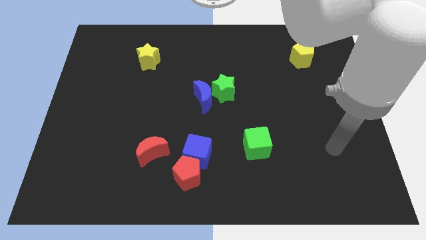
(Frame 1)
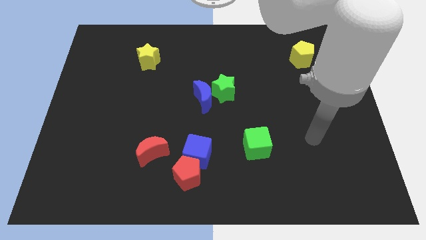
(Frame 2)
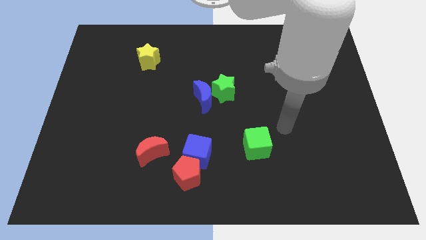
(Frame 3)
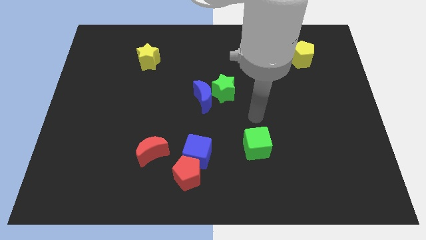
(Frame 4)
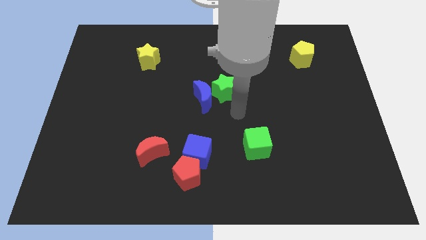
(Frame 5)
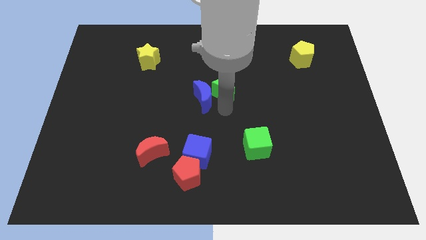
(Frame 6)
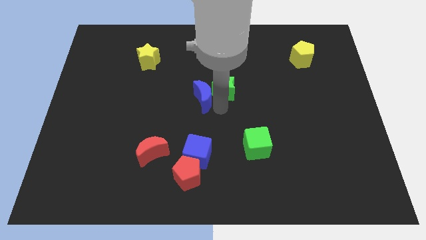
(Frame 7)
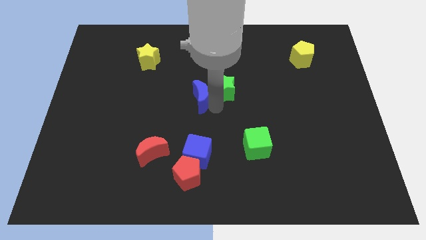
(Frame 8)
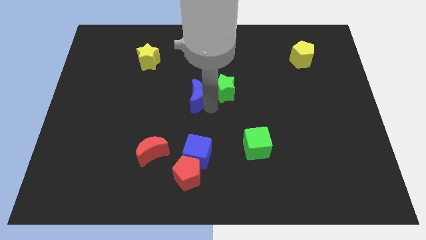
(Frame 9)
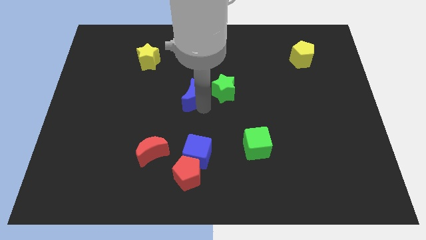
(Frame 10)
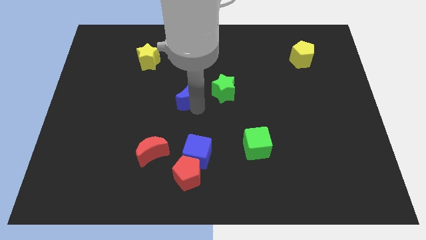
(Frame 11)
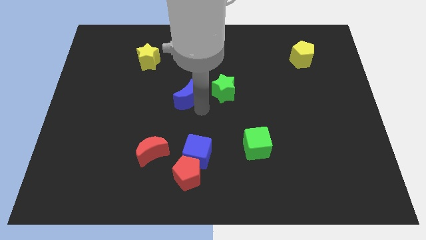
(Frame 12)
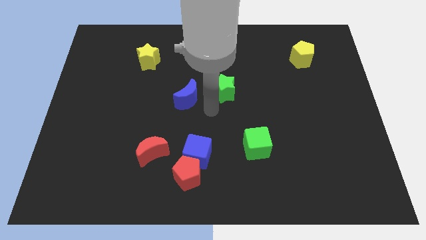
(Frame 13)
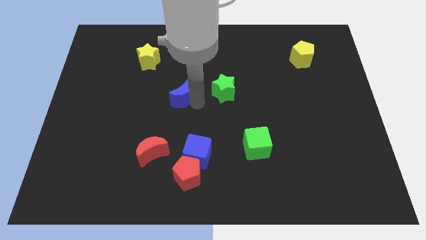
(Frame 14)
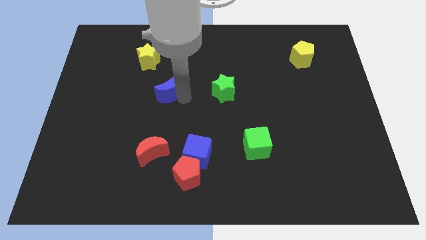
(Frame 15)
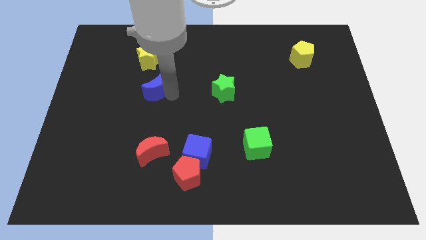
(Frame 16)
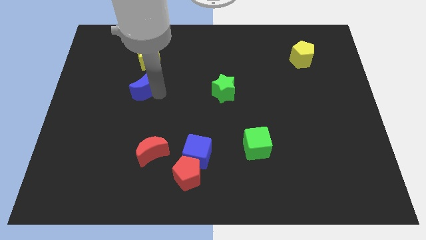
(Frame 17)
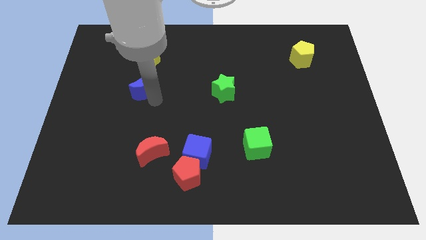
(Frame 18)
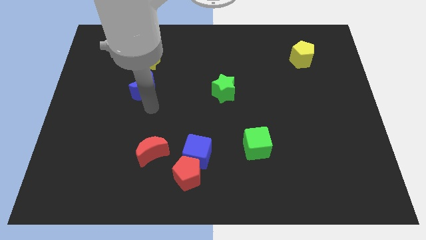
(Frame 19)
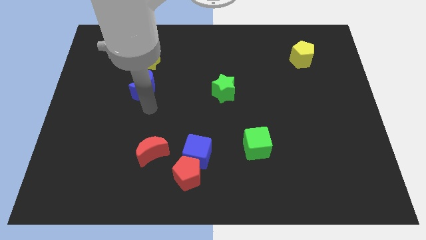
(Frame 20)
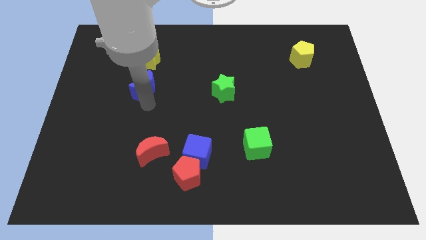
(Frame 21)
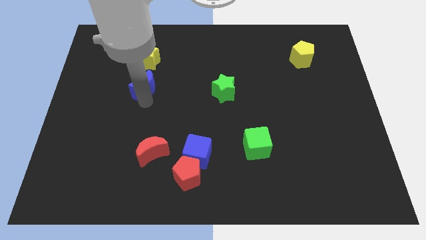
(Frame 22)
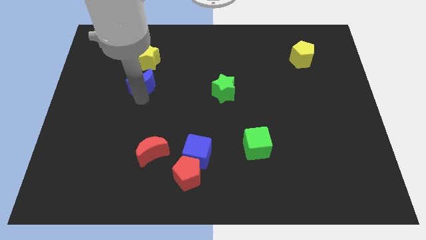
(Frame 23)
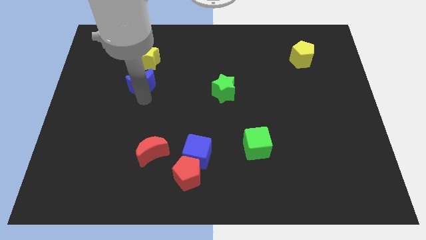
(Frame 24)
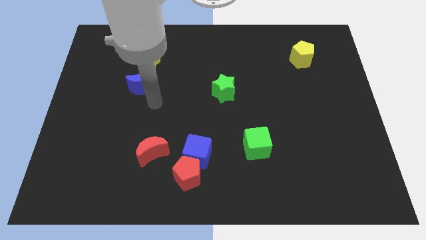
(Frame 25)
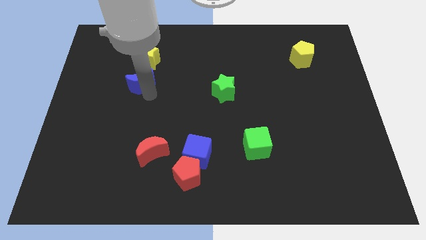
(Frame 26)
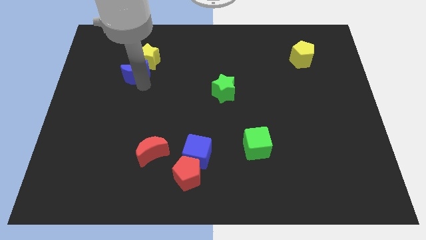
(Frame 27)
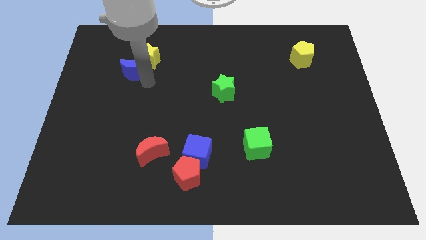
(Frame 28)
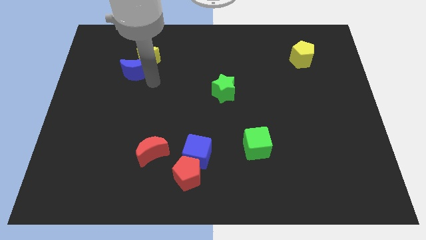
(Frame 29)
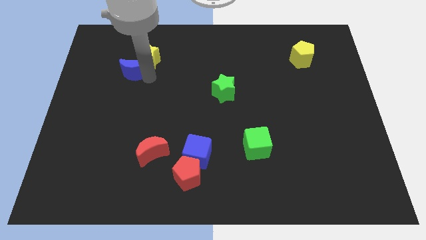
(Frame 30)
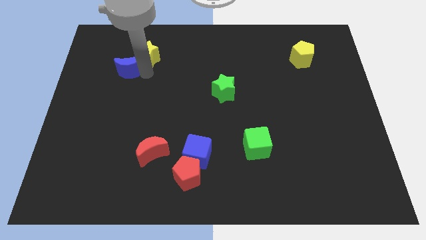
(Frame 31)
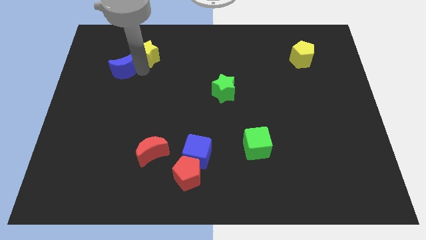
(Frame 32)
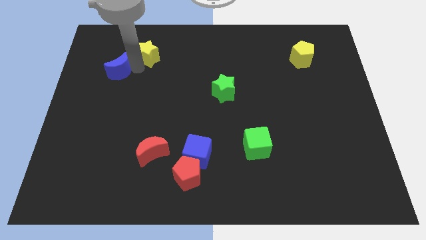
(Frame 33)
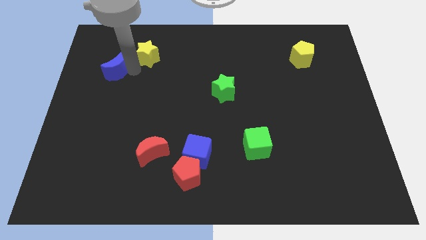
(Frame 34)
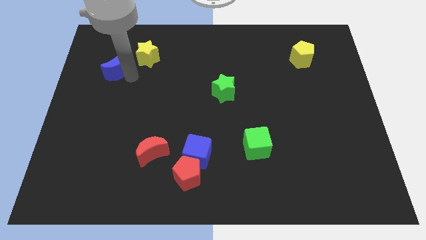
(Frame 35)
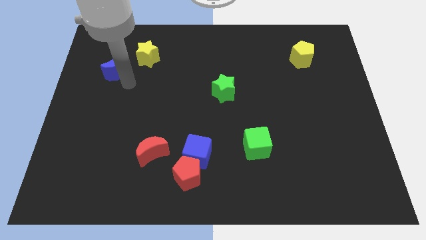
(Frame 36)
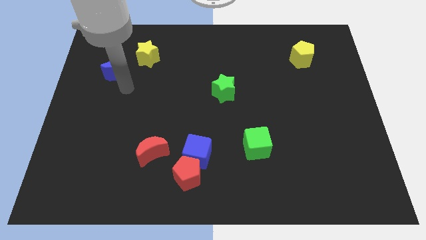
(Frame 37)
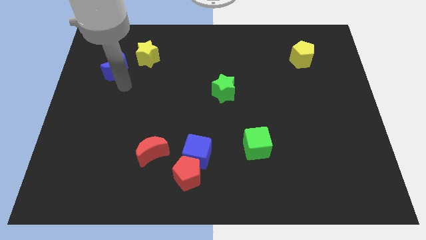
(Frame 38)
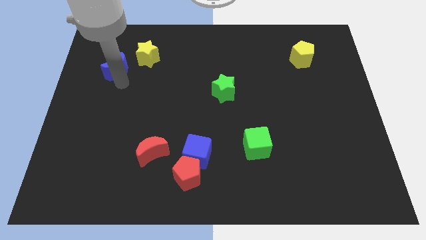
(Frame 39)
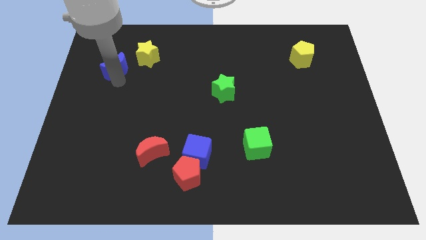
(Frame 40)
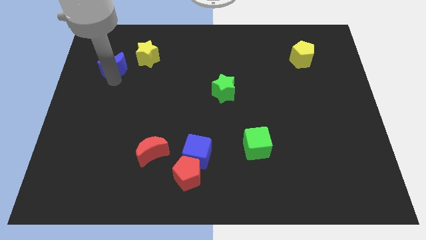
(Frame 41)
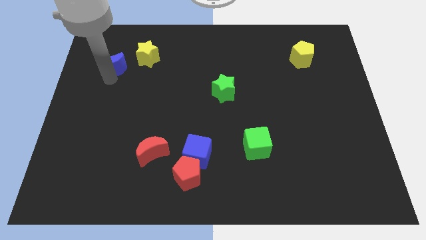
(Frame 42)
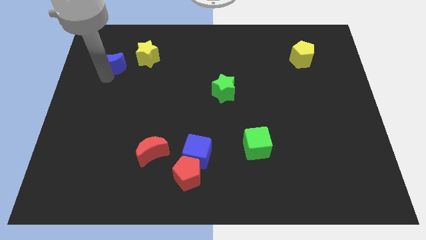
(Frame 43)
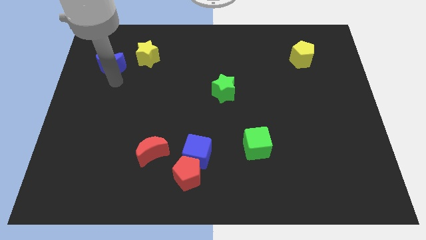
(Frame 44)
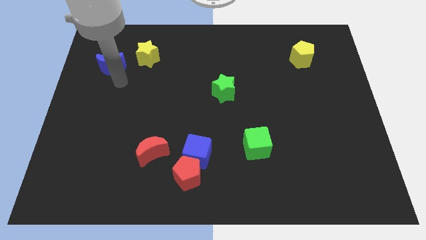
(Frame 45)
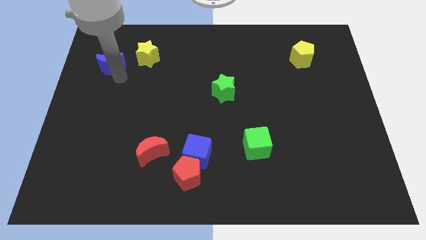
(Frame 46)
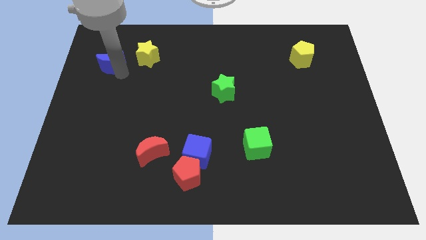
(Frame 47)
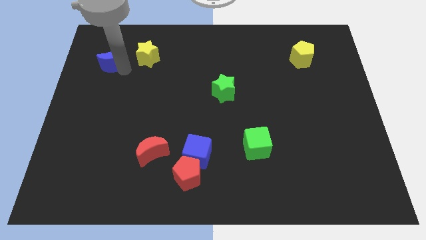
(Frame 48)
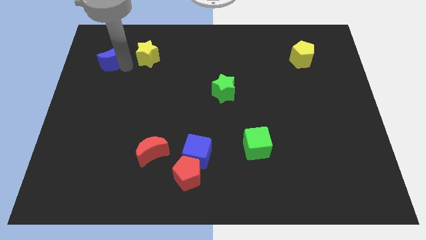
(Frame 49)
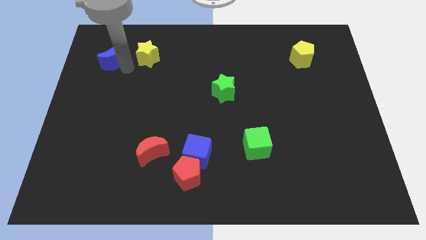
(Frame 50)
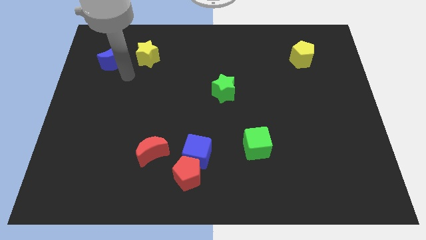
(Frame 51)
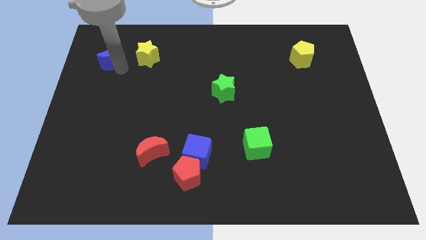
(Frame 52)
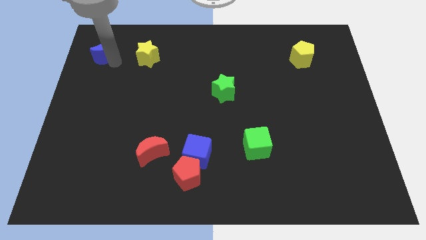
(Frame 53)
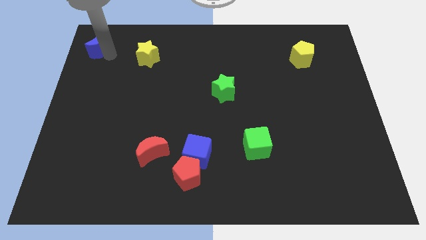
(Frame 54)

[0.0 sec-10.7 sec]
move the blue moon to the upper left corner

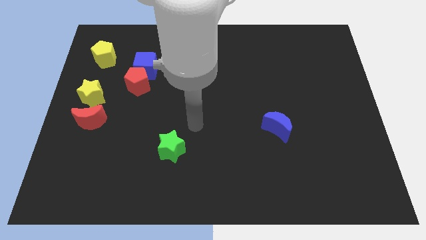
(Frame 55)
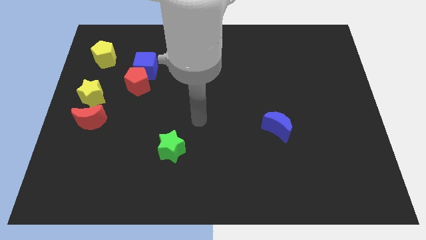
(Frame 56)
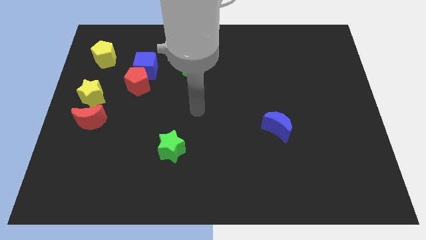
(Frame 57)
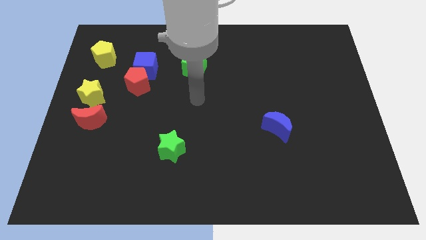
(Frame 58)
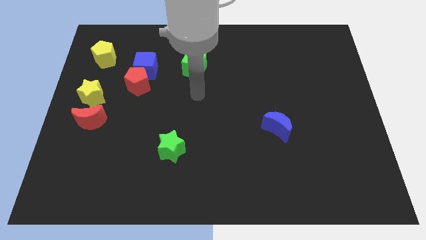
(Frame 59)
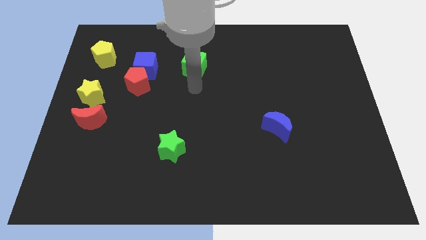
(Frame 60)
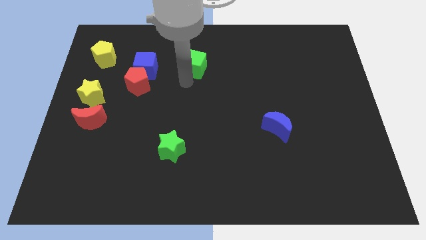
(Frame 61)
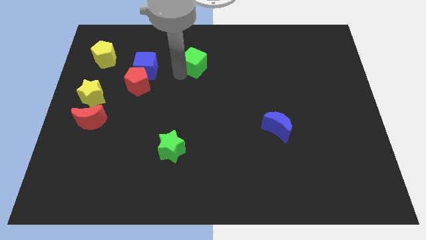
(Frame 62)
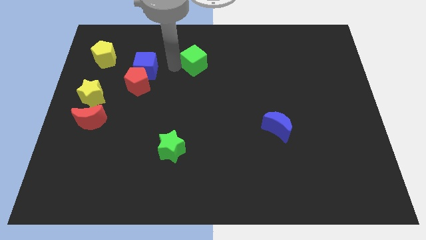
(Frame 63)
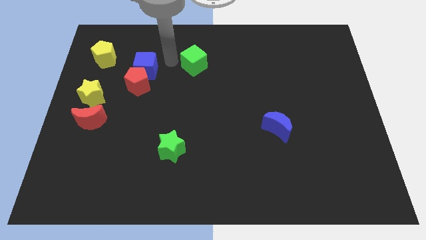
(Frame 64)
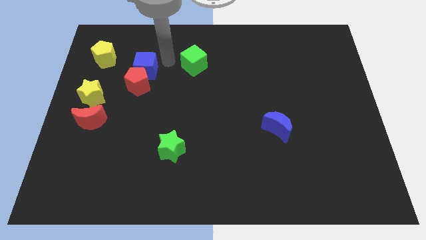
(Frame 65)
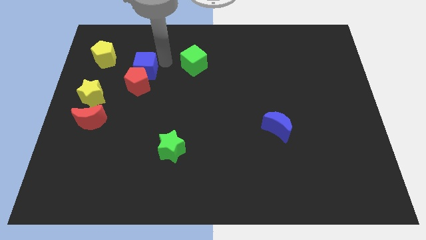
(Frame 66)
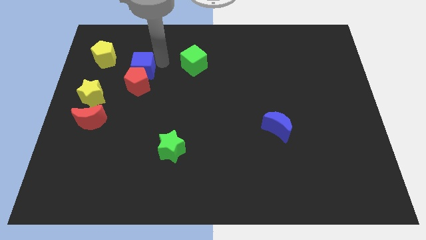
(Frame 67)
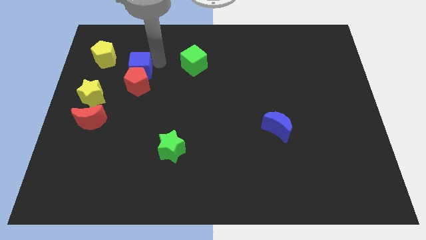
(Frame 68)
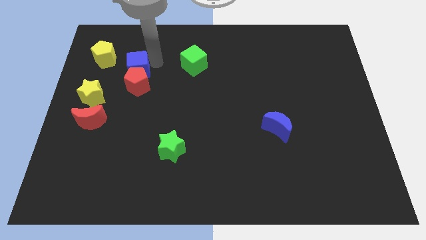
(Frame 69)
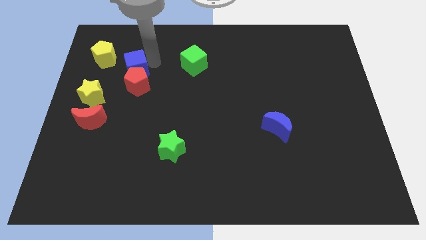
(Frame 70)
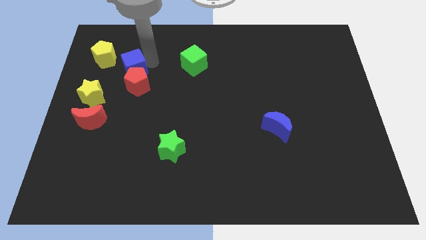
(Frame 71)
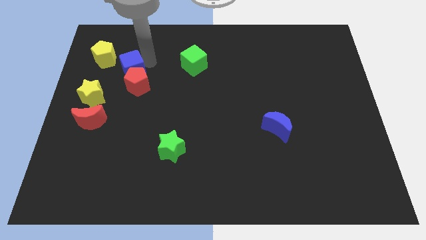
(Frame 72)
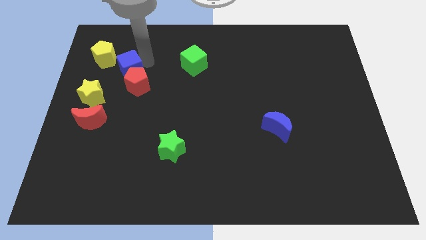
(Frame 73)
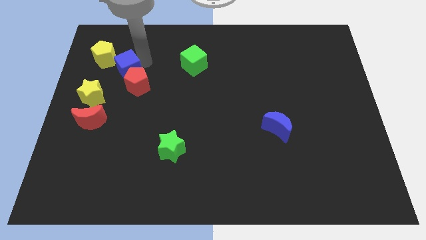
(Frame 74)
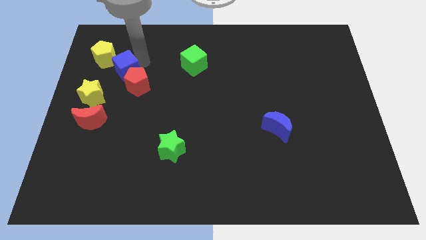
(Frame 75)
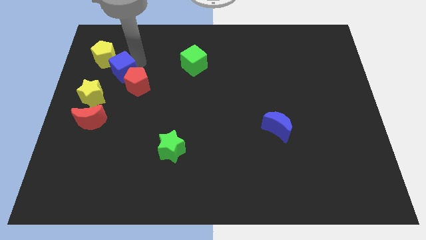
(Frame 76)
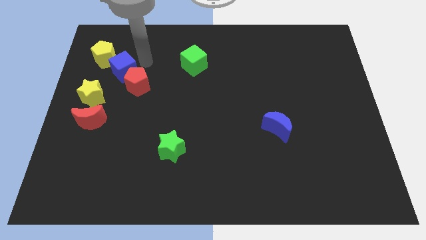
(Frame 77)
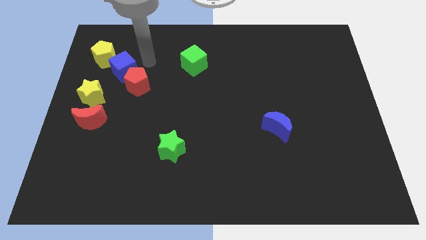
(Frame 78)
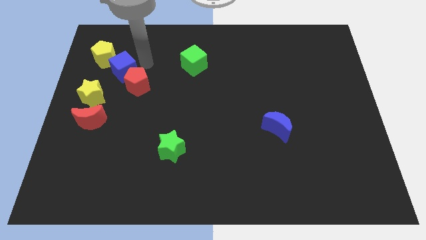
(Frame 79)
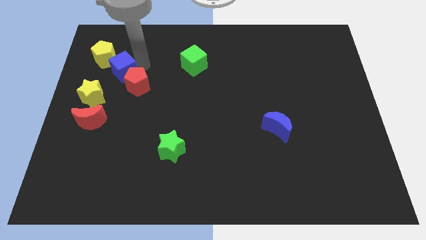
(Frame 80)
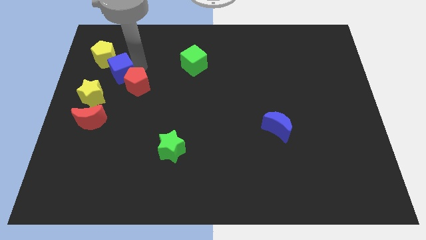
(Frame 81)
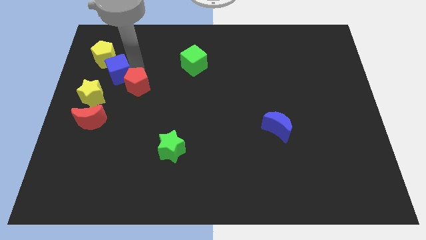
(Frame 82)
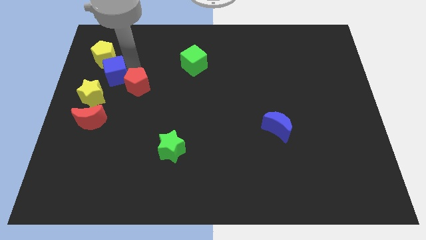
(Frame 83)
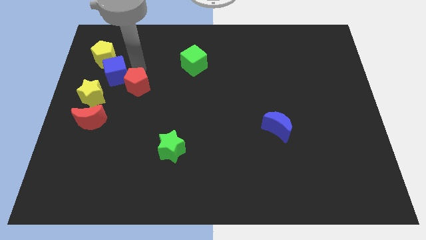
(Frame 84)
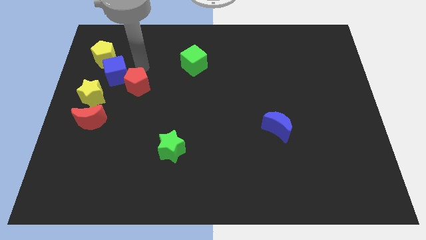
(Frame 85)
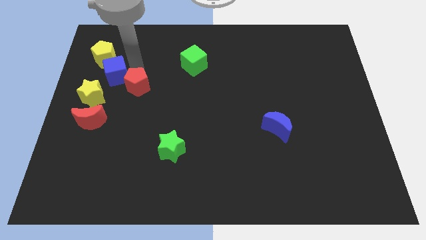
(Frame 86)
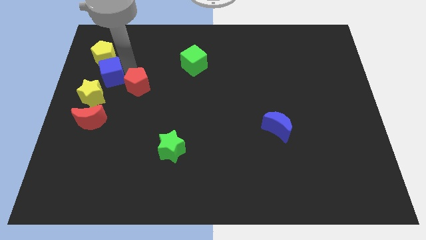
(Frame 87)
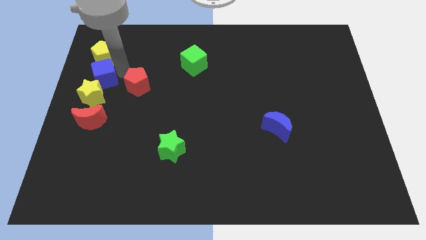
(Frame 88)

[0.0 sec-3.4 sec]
move the blue cube to the left side of the board
